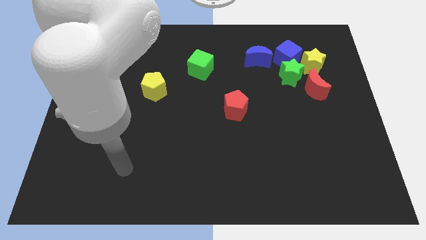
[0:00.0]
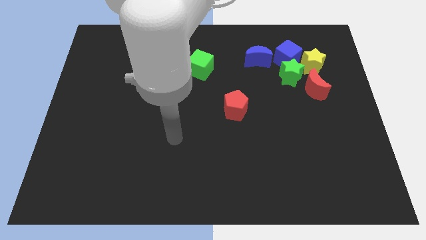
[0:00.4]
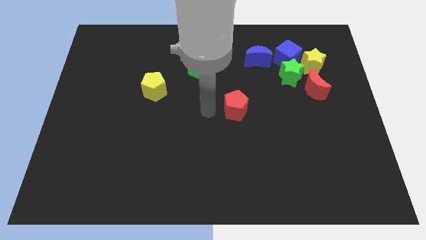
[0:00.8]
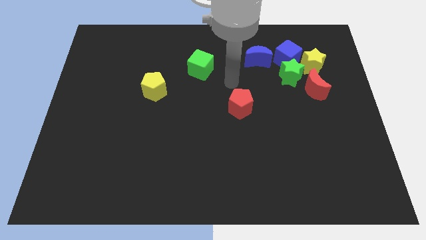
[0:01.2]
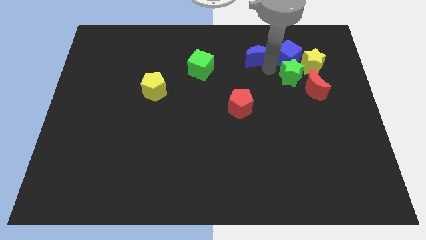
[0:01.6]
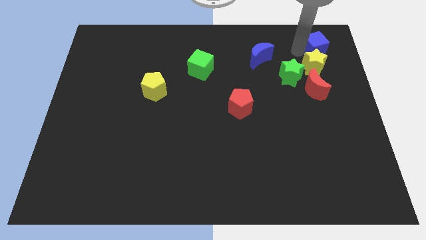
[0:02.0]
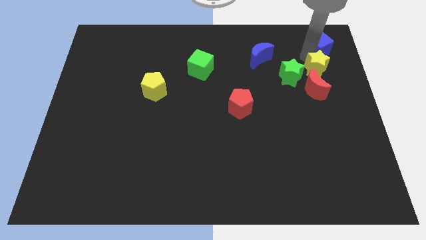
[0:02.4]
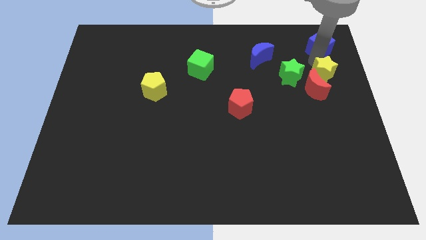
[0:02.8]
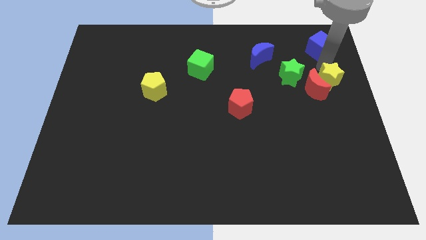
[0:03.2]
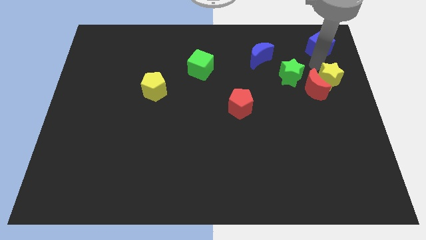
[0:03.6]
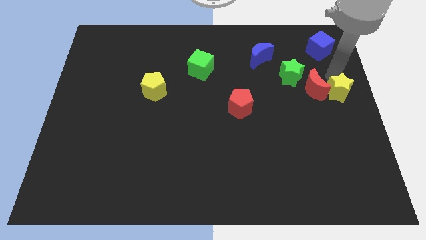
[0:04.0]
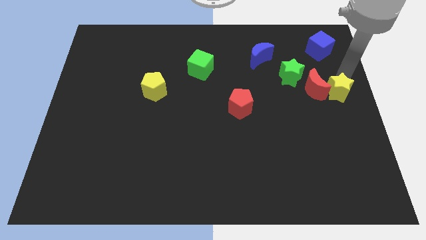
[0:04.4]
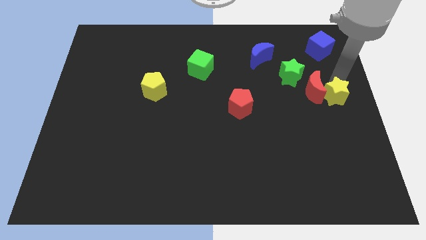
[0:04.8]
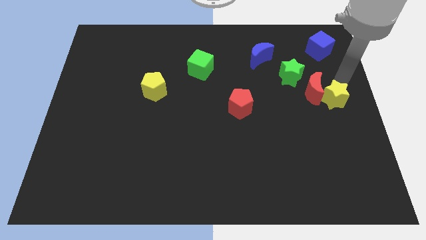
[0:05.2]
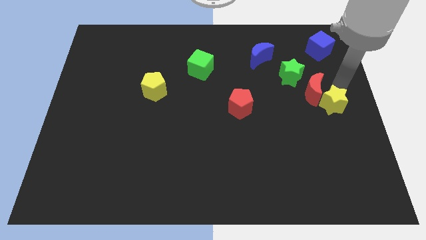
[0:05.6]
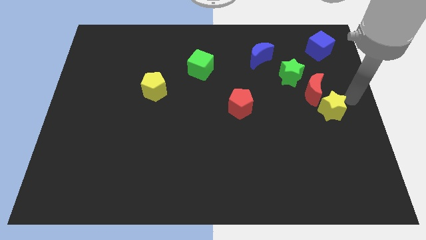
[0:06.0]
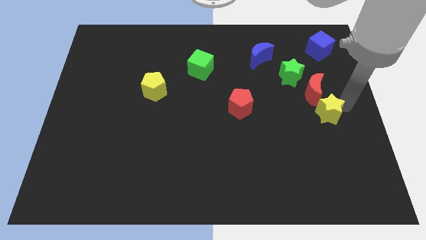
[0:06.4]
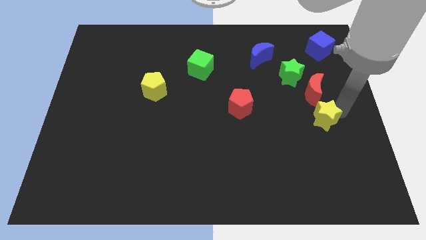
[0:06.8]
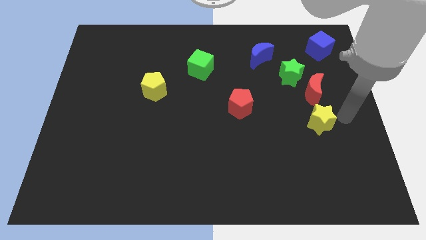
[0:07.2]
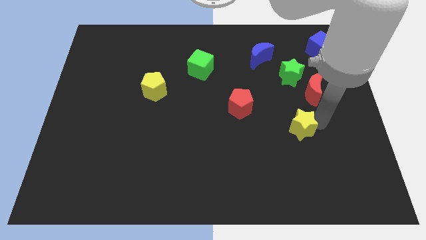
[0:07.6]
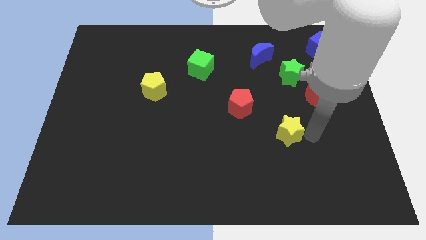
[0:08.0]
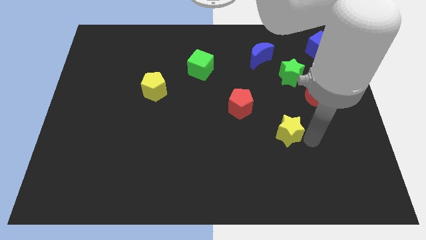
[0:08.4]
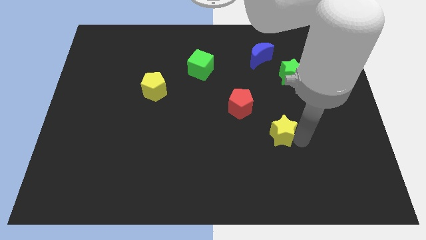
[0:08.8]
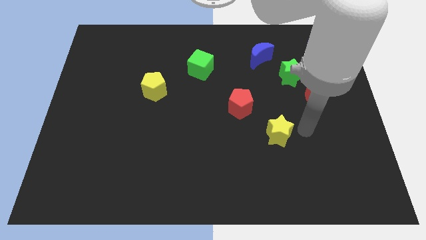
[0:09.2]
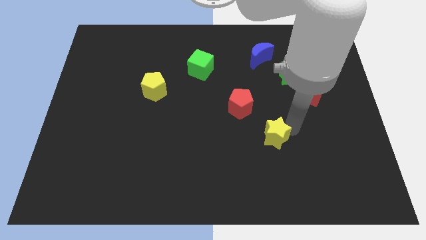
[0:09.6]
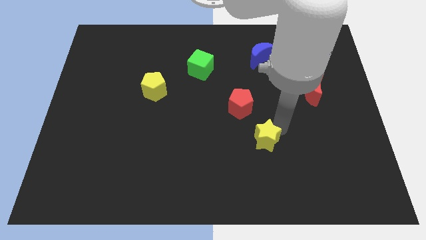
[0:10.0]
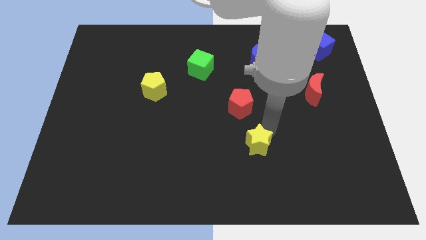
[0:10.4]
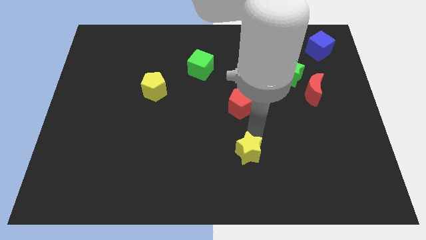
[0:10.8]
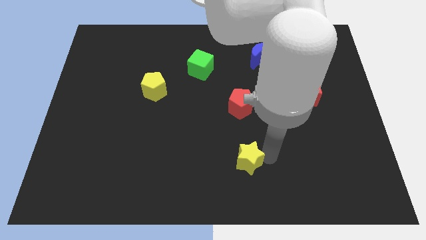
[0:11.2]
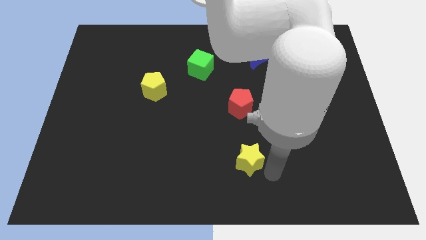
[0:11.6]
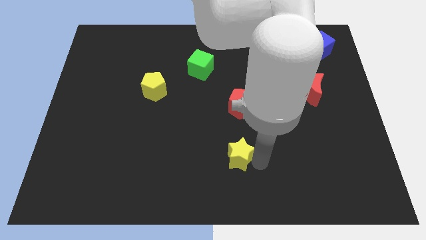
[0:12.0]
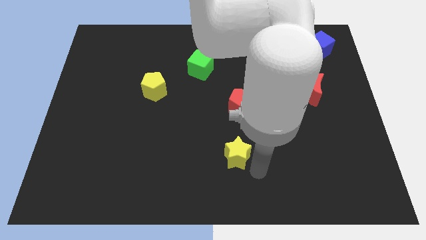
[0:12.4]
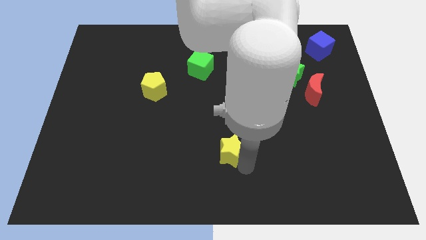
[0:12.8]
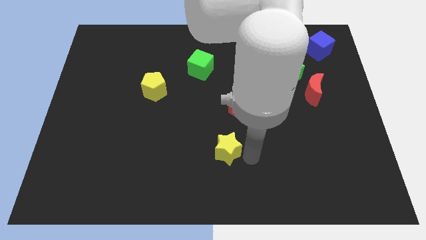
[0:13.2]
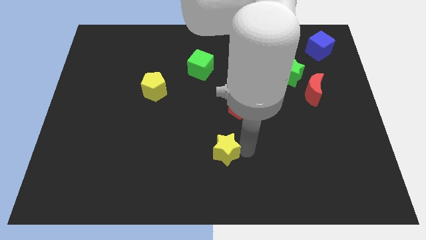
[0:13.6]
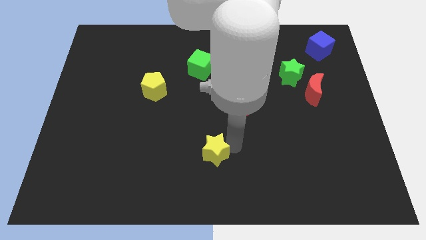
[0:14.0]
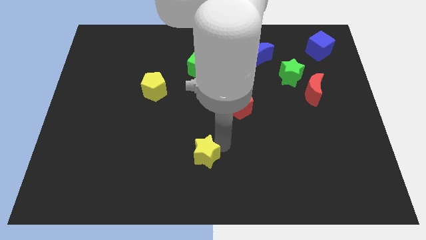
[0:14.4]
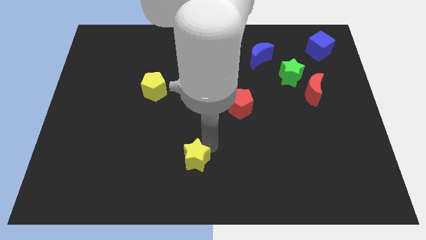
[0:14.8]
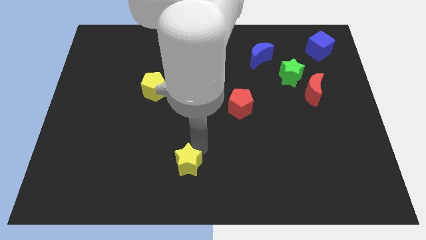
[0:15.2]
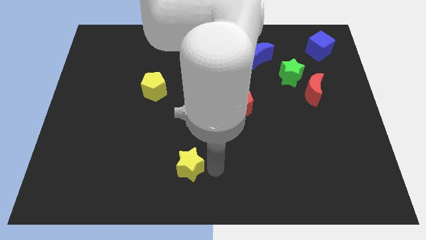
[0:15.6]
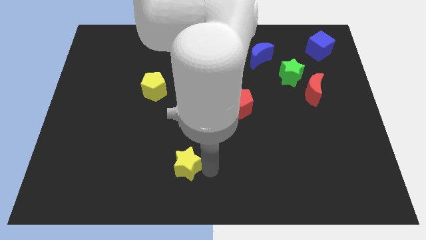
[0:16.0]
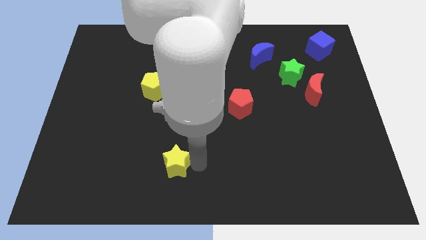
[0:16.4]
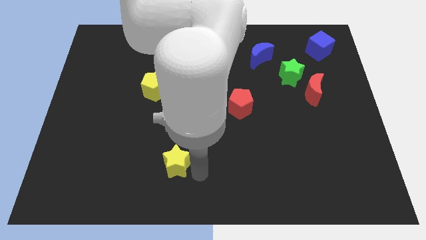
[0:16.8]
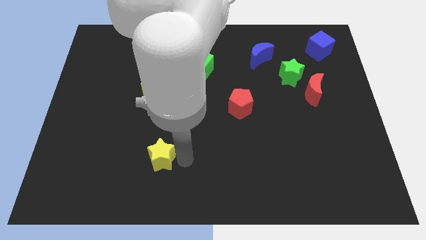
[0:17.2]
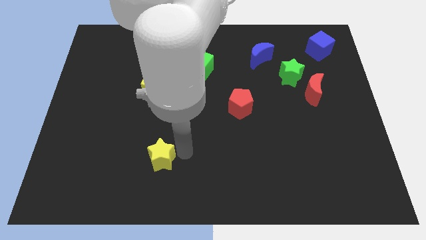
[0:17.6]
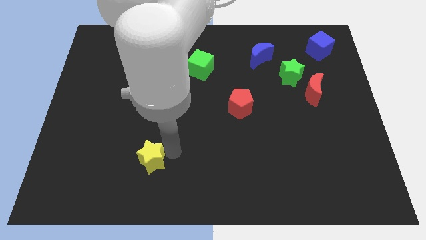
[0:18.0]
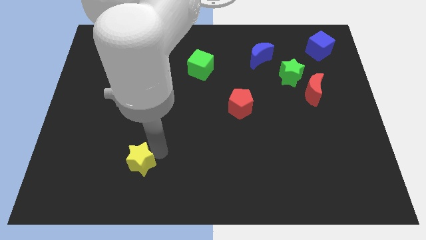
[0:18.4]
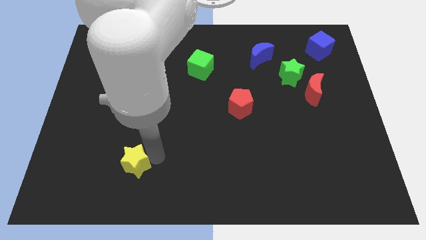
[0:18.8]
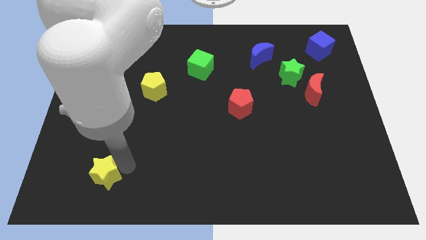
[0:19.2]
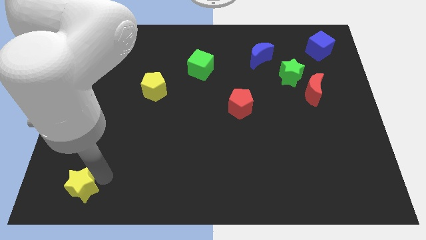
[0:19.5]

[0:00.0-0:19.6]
push the yellow star to the bottom left corner

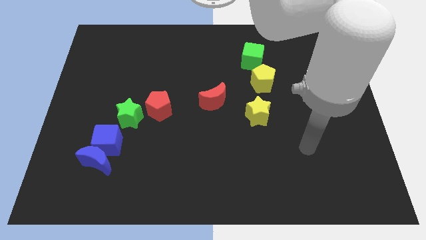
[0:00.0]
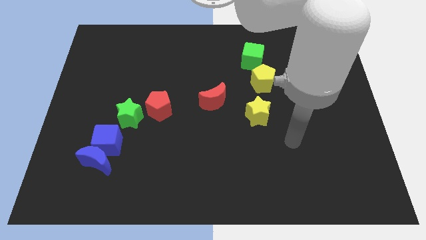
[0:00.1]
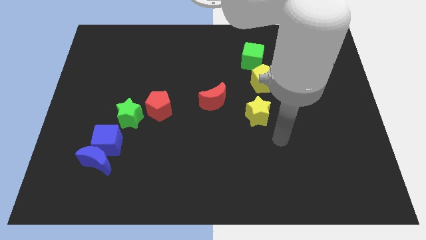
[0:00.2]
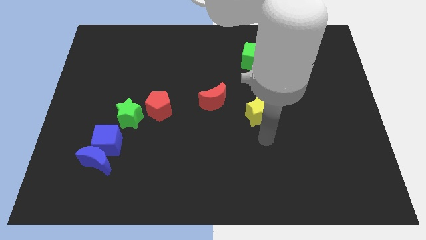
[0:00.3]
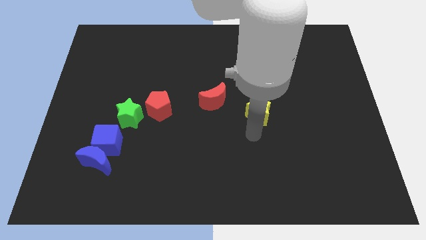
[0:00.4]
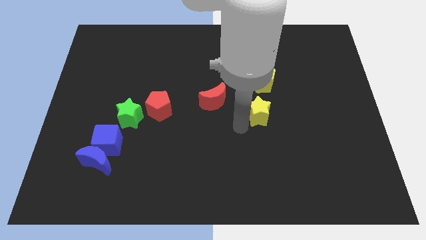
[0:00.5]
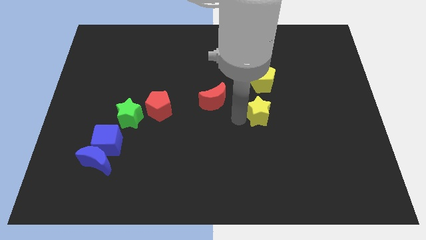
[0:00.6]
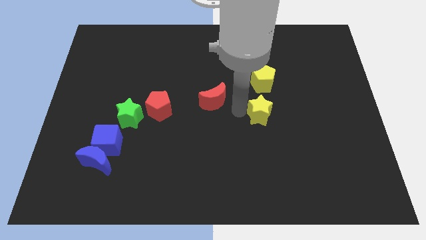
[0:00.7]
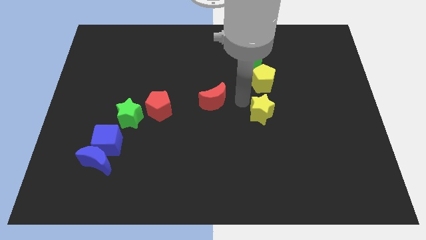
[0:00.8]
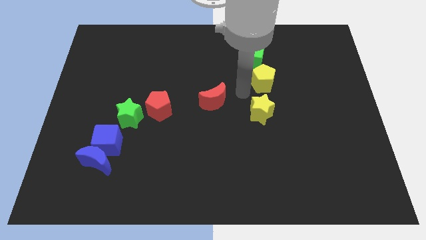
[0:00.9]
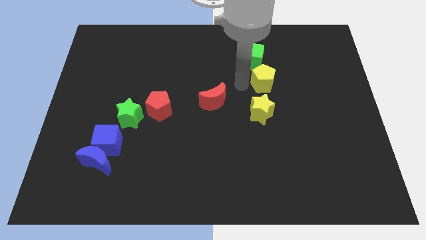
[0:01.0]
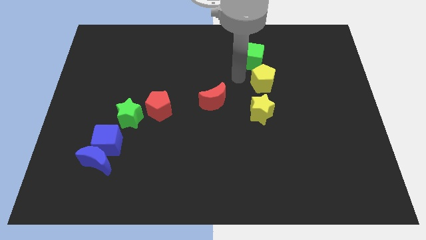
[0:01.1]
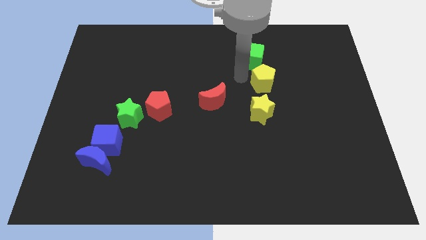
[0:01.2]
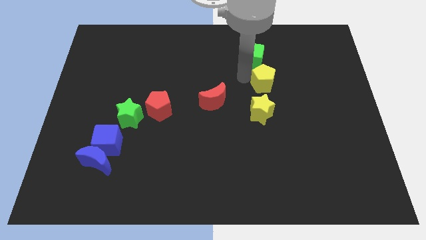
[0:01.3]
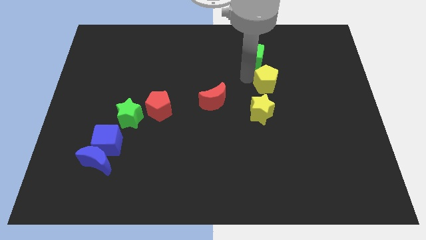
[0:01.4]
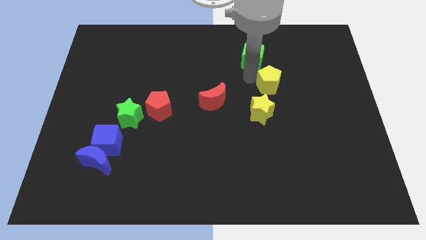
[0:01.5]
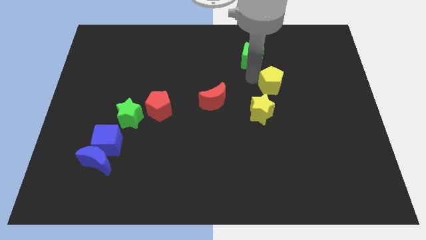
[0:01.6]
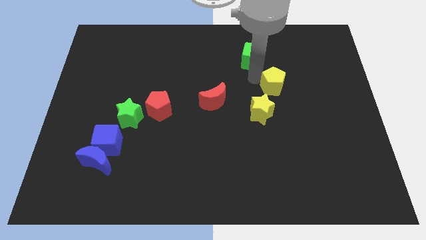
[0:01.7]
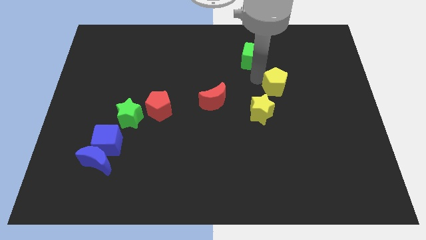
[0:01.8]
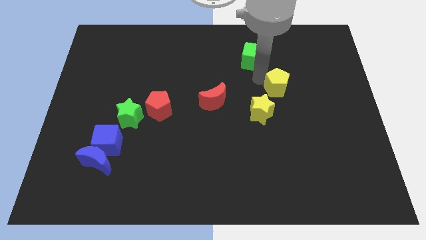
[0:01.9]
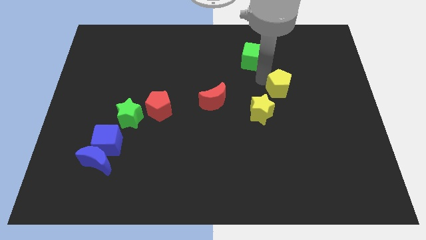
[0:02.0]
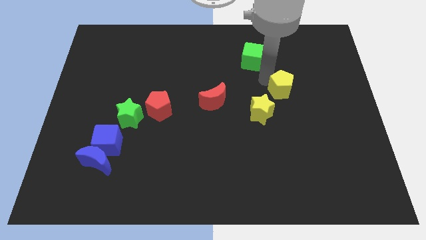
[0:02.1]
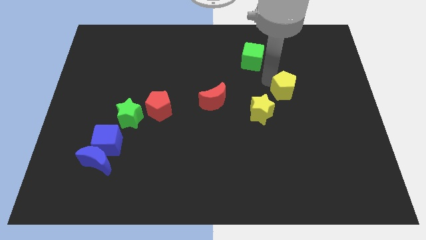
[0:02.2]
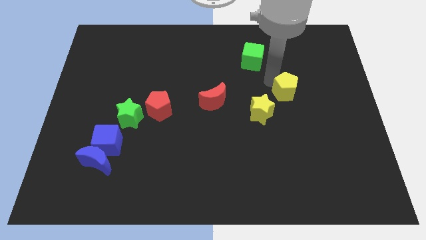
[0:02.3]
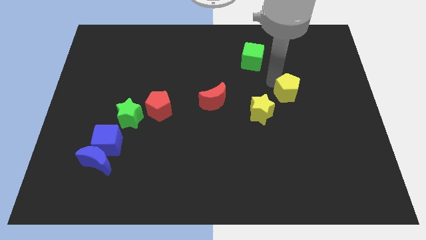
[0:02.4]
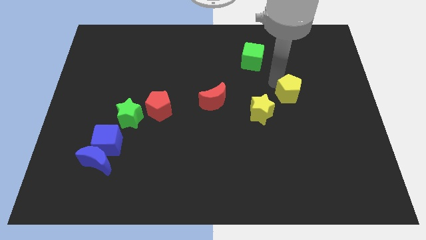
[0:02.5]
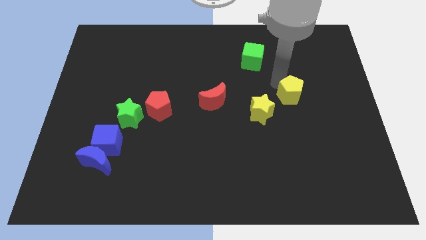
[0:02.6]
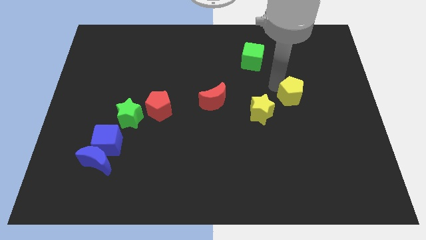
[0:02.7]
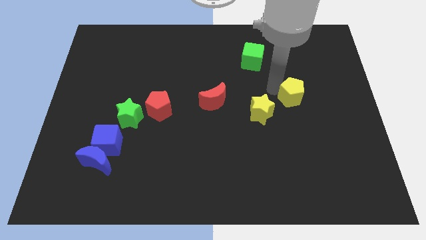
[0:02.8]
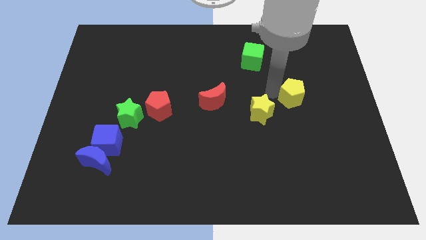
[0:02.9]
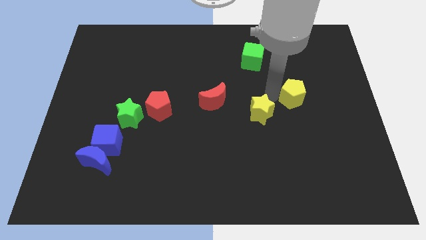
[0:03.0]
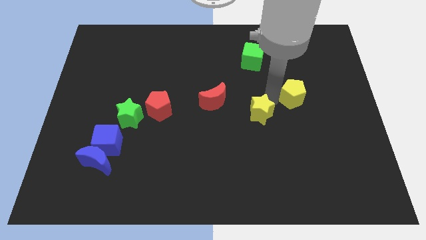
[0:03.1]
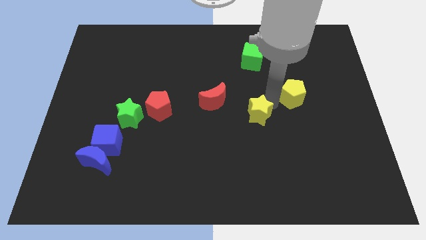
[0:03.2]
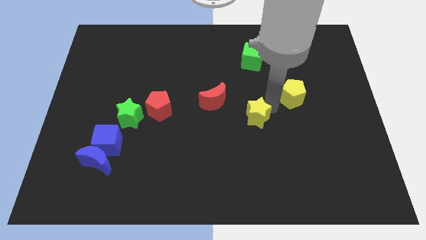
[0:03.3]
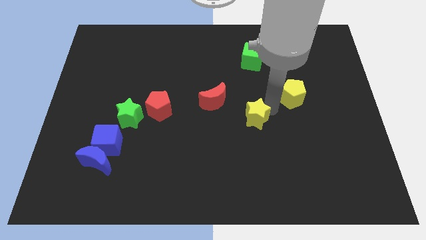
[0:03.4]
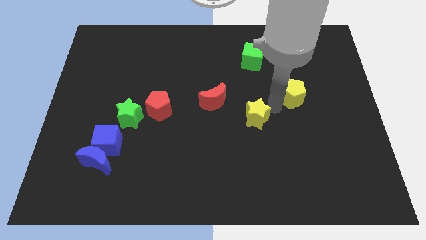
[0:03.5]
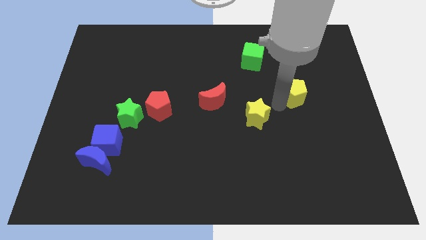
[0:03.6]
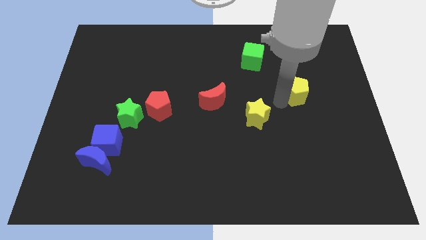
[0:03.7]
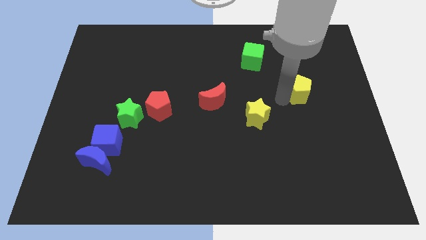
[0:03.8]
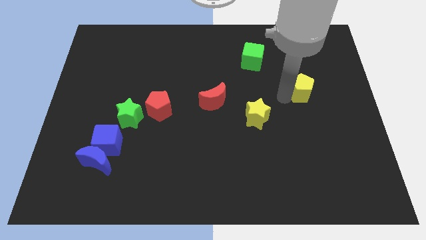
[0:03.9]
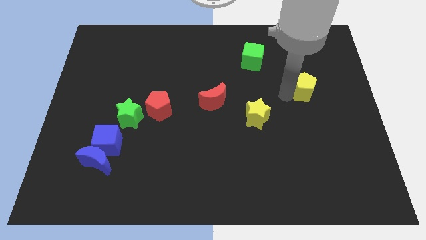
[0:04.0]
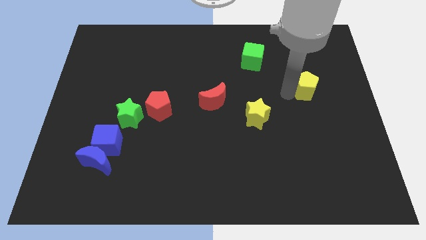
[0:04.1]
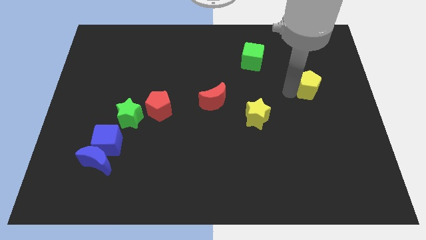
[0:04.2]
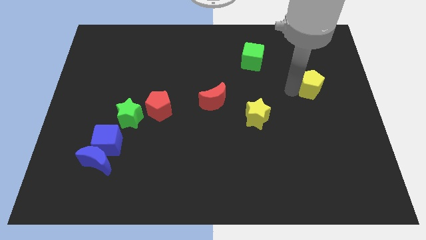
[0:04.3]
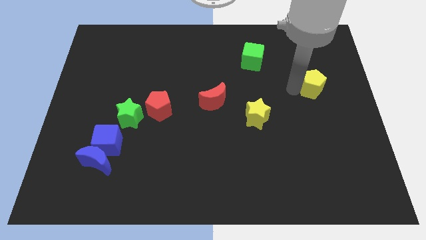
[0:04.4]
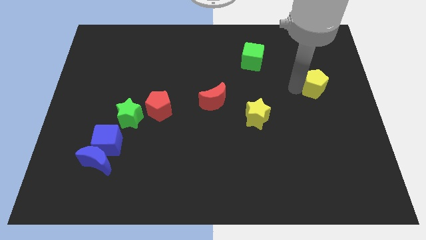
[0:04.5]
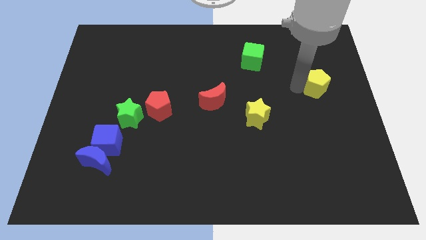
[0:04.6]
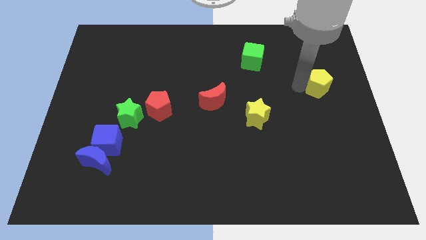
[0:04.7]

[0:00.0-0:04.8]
put the yellow pentagon to the right side
